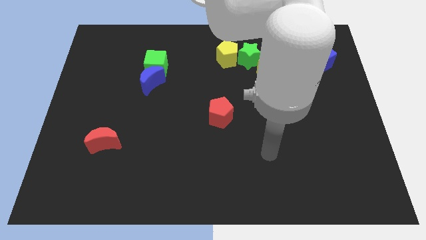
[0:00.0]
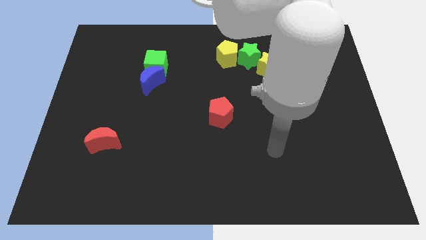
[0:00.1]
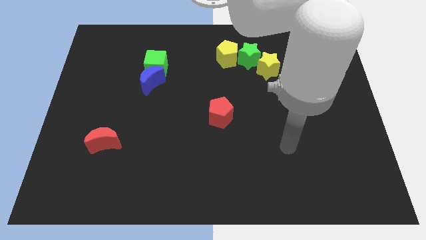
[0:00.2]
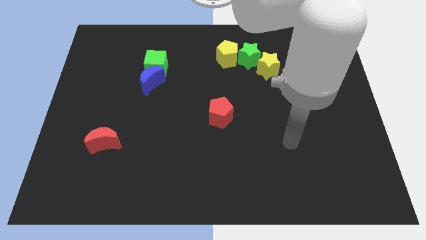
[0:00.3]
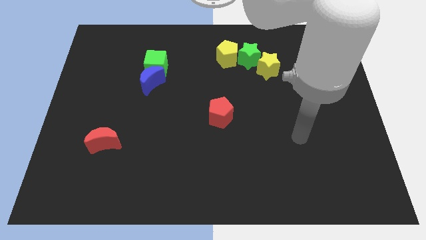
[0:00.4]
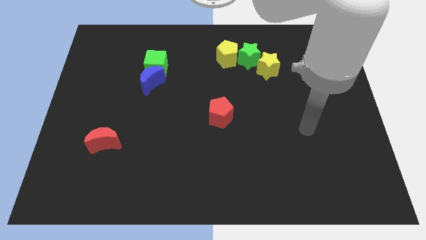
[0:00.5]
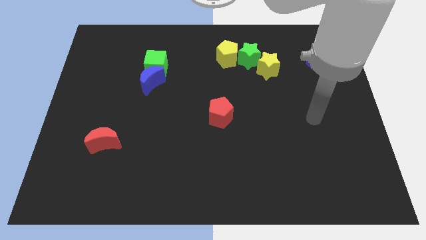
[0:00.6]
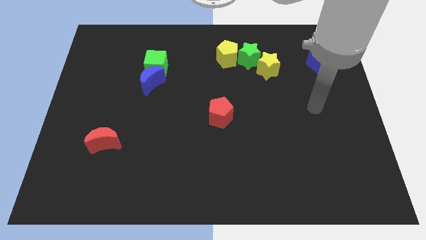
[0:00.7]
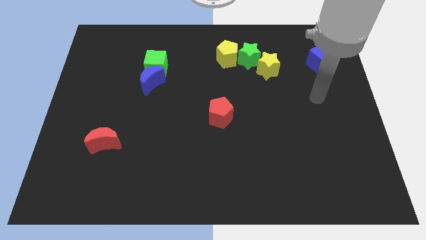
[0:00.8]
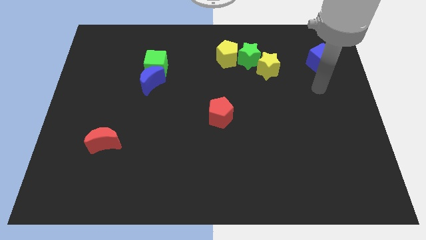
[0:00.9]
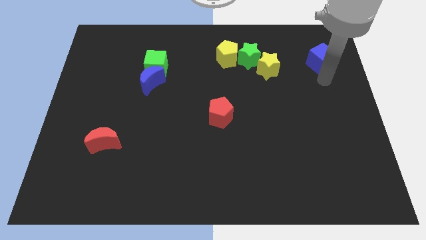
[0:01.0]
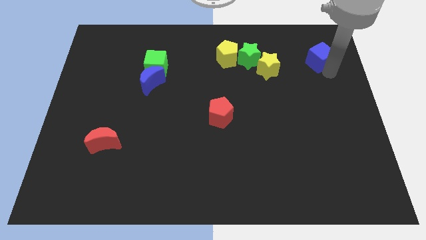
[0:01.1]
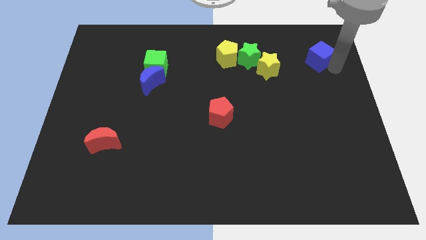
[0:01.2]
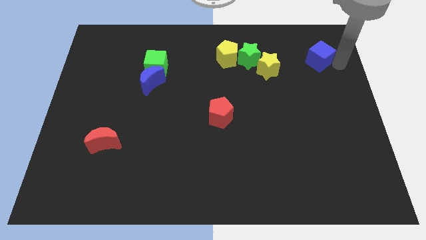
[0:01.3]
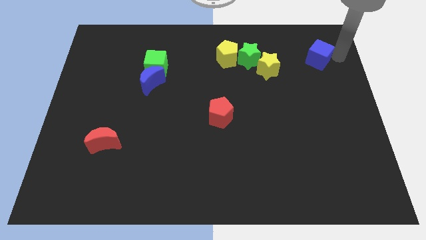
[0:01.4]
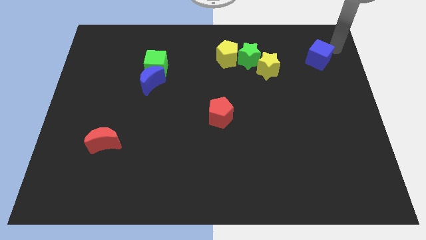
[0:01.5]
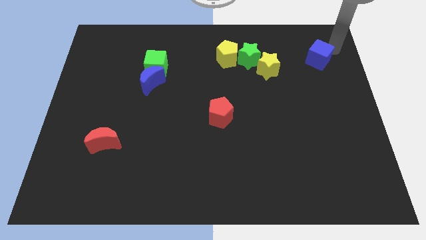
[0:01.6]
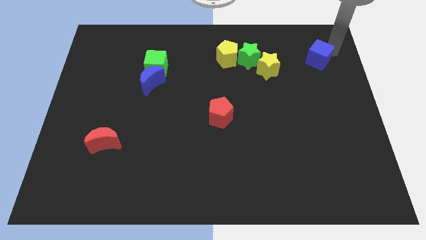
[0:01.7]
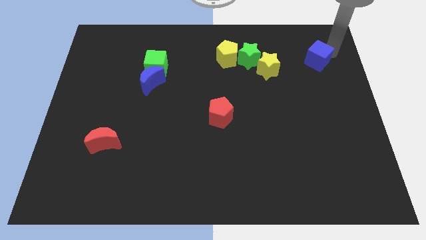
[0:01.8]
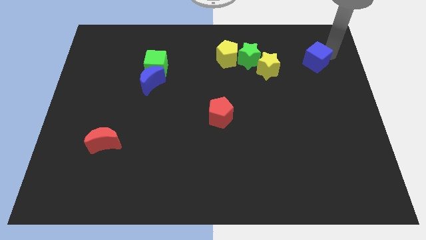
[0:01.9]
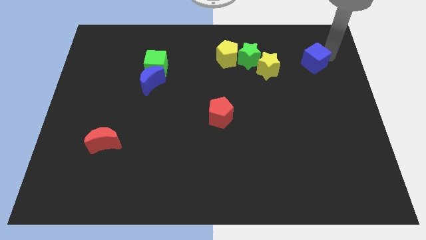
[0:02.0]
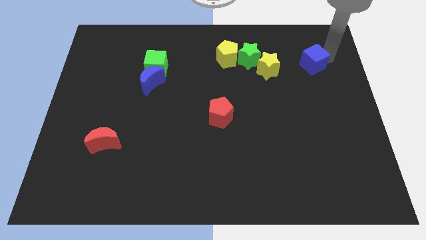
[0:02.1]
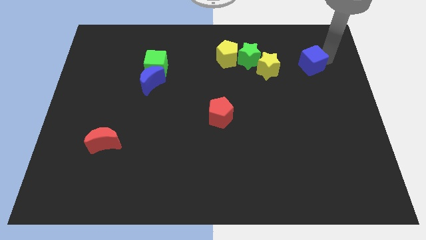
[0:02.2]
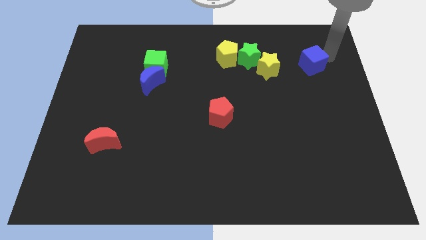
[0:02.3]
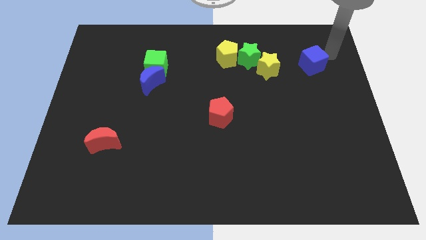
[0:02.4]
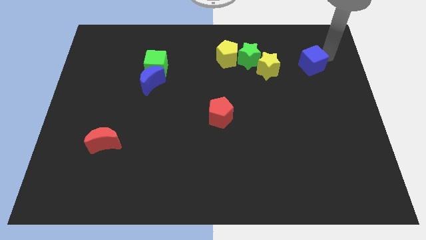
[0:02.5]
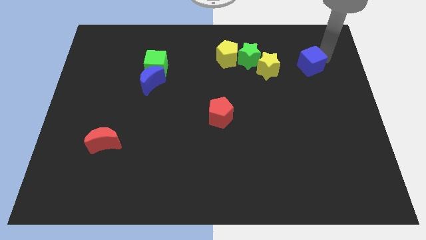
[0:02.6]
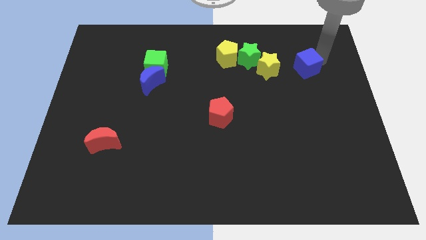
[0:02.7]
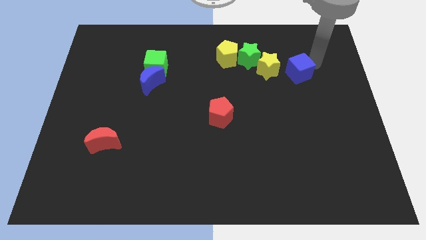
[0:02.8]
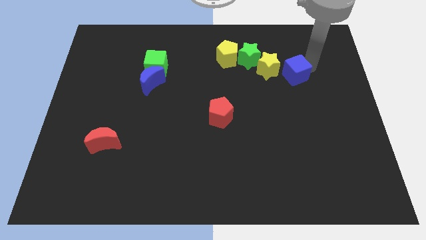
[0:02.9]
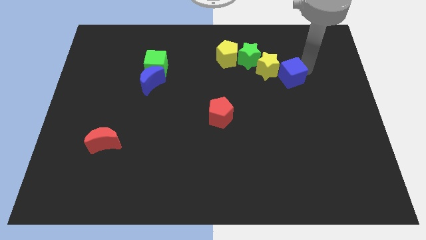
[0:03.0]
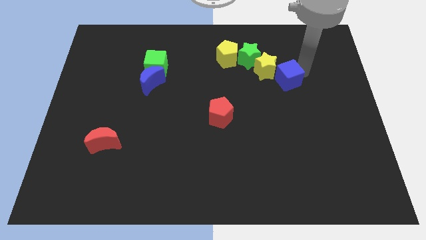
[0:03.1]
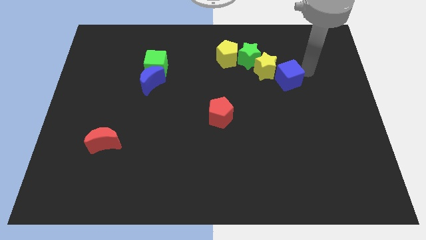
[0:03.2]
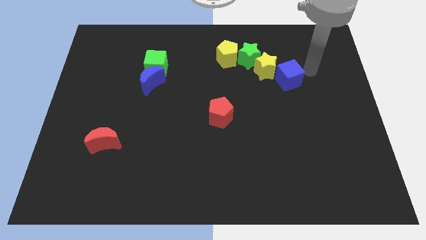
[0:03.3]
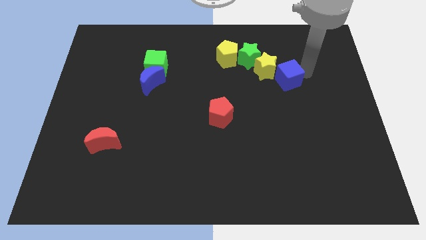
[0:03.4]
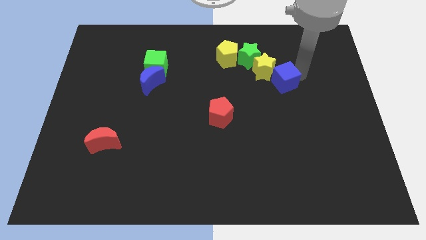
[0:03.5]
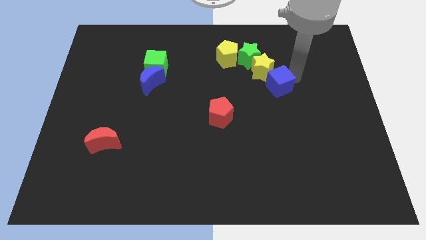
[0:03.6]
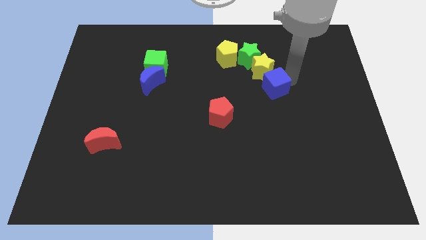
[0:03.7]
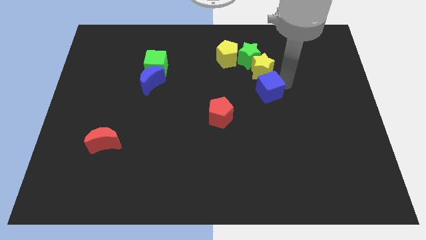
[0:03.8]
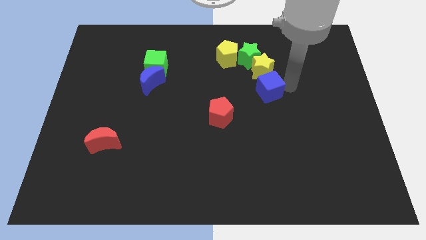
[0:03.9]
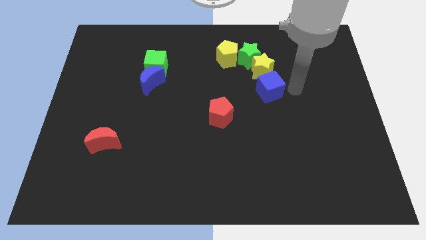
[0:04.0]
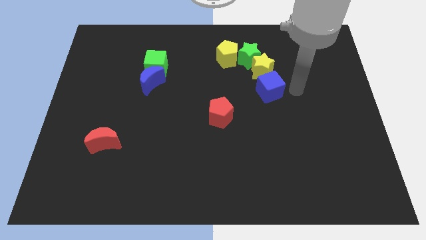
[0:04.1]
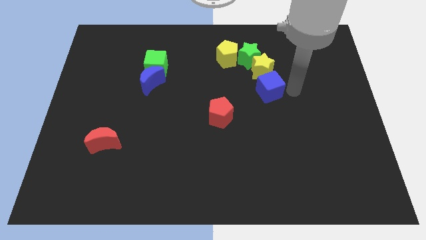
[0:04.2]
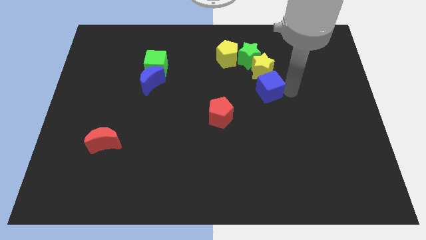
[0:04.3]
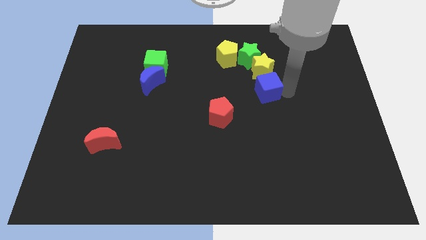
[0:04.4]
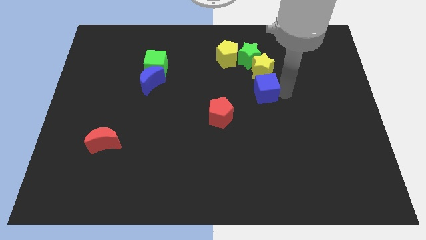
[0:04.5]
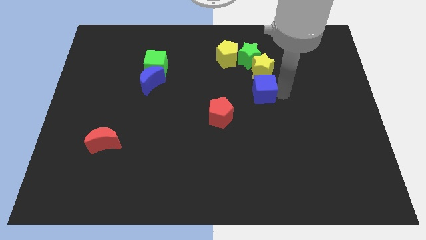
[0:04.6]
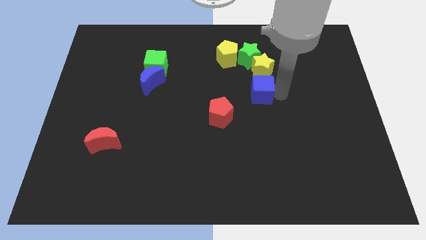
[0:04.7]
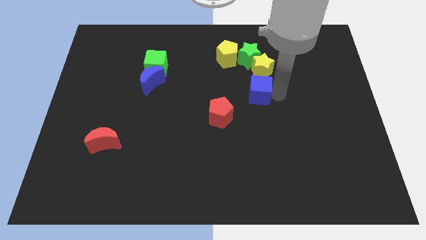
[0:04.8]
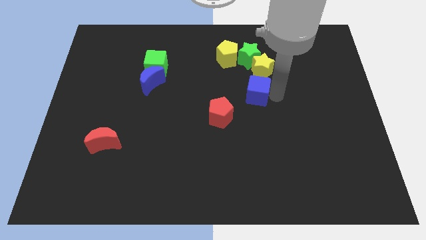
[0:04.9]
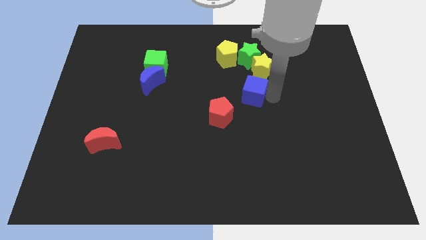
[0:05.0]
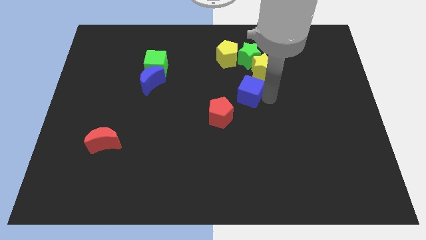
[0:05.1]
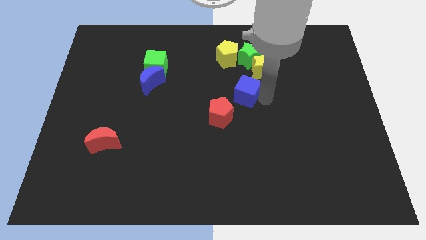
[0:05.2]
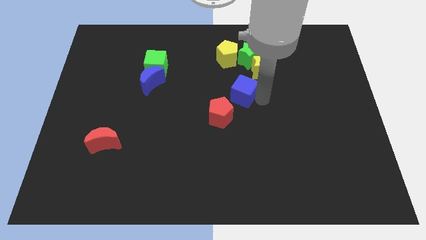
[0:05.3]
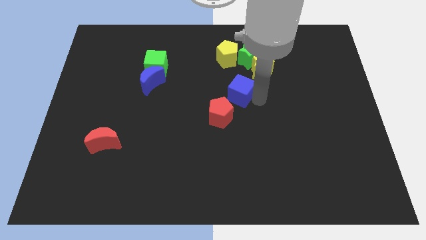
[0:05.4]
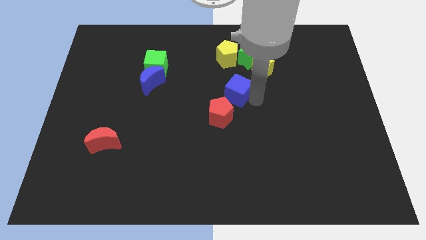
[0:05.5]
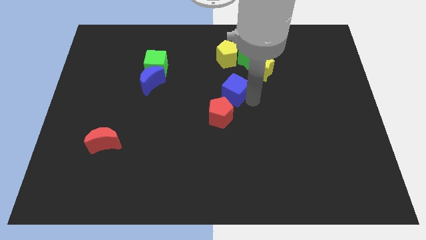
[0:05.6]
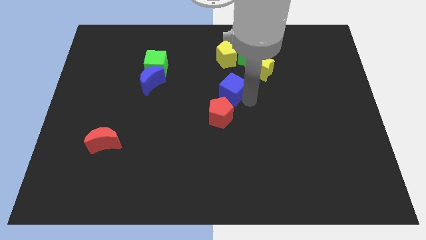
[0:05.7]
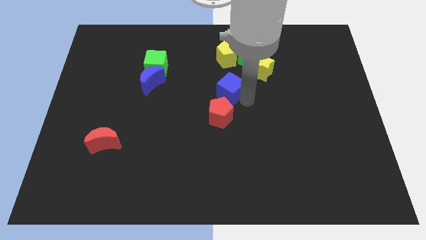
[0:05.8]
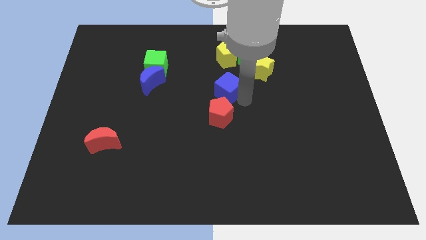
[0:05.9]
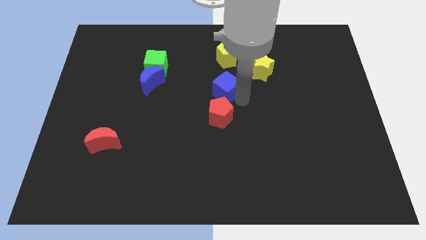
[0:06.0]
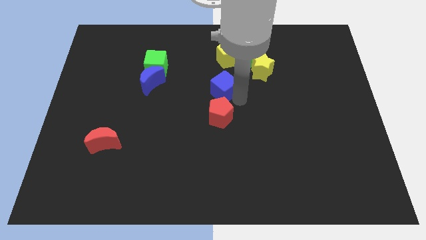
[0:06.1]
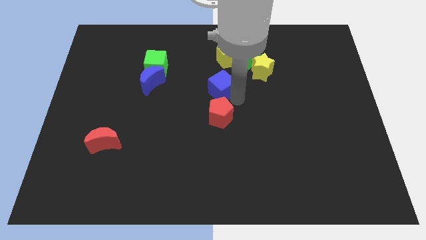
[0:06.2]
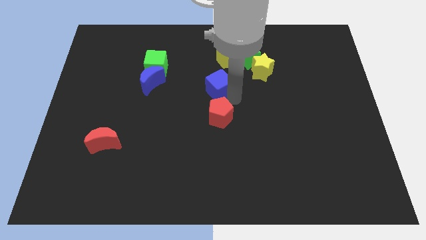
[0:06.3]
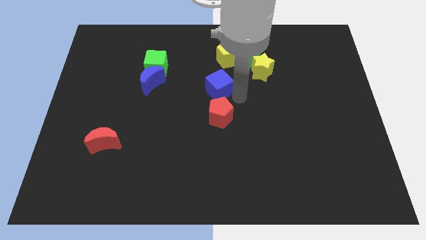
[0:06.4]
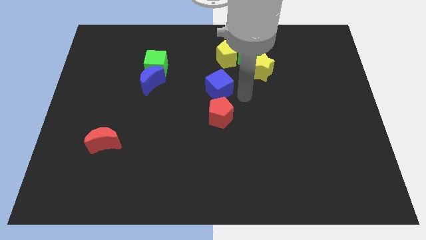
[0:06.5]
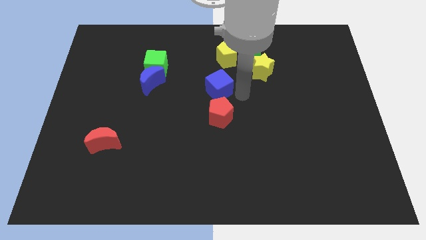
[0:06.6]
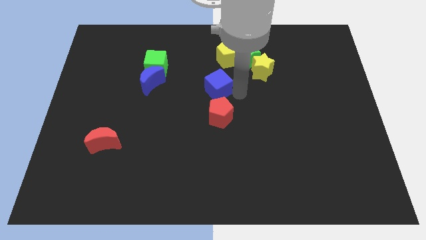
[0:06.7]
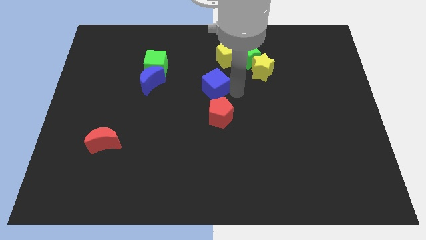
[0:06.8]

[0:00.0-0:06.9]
push the blue cube just right of the blue moon

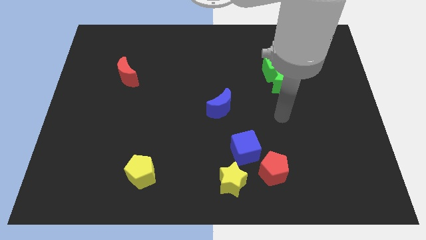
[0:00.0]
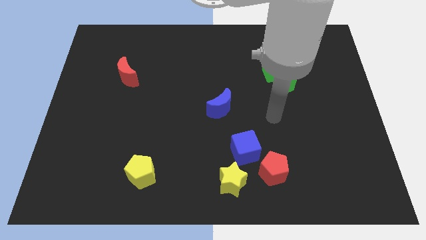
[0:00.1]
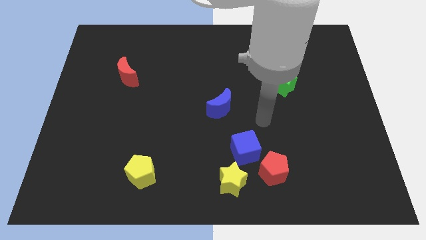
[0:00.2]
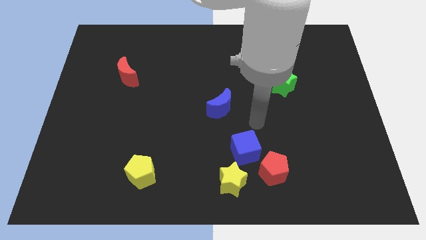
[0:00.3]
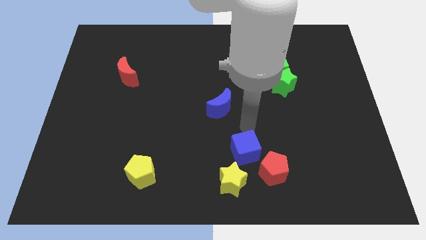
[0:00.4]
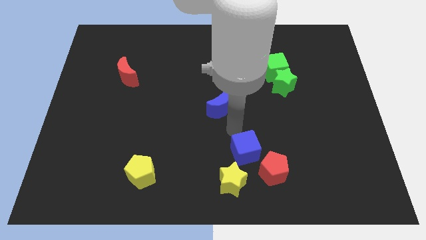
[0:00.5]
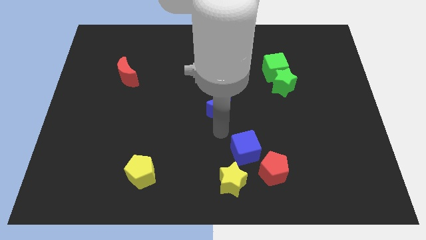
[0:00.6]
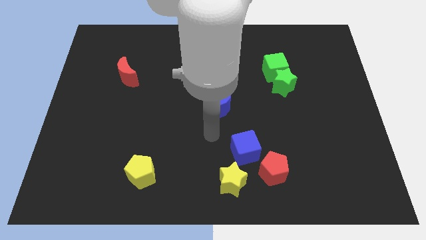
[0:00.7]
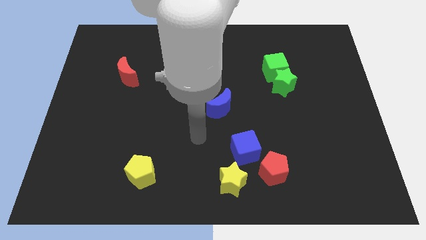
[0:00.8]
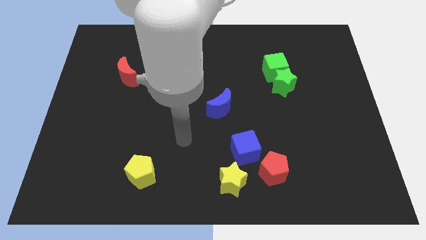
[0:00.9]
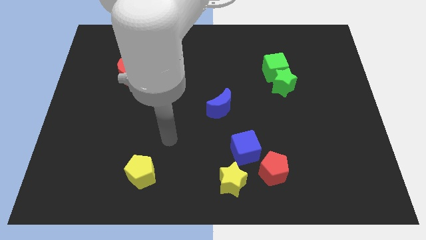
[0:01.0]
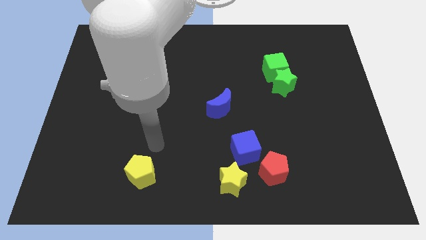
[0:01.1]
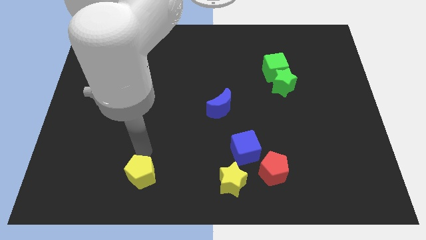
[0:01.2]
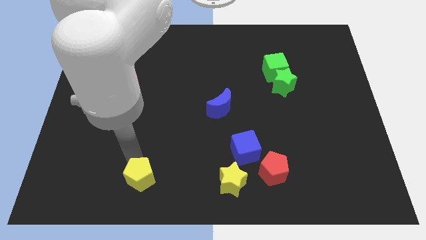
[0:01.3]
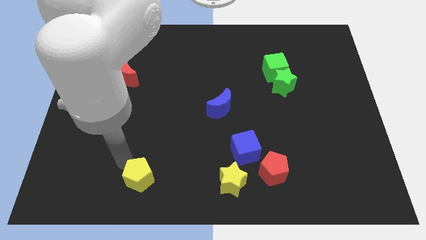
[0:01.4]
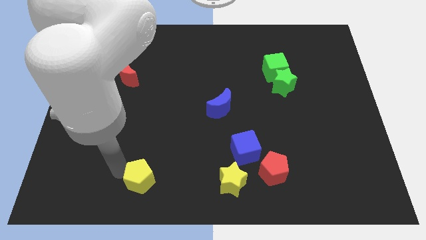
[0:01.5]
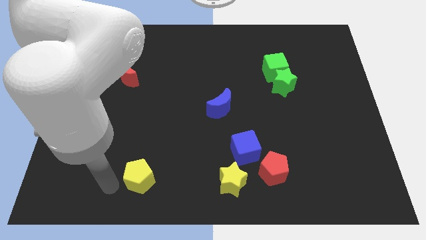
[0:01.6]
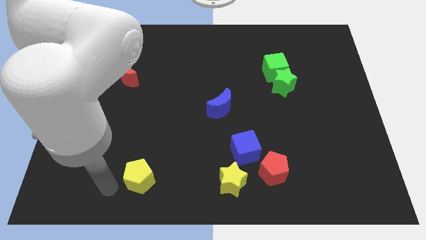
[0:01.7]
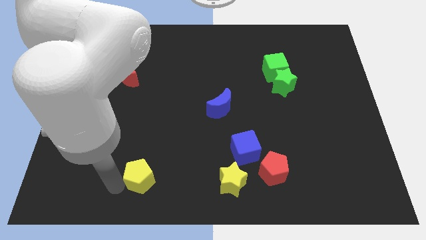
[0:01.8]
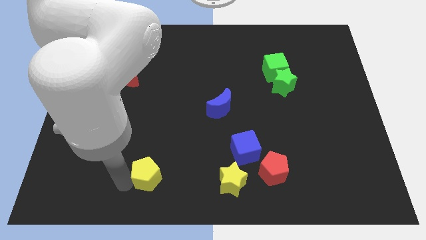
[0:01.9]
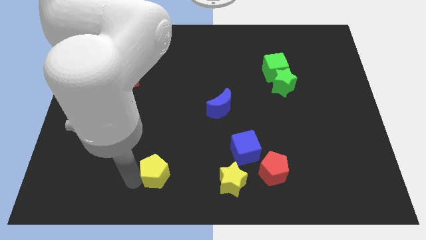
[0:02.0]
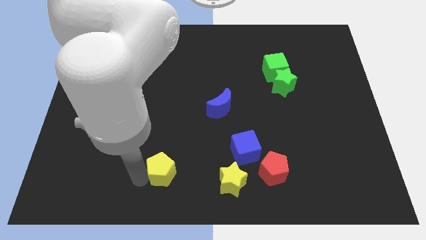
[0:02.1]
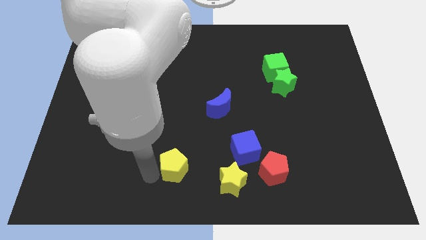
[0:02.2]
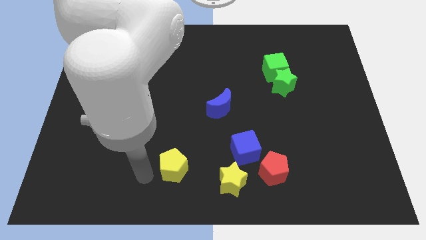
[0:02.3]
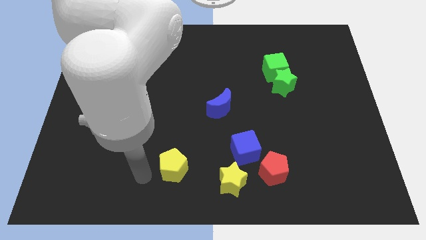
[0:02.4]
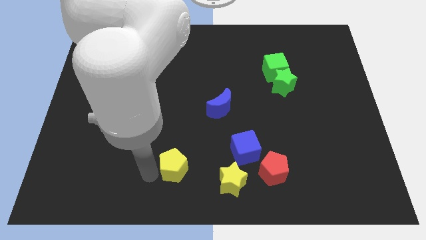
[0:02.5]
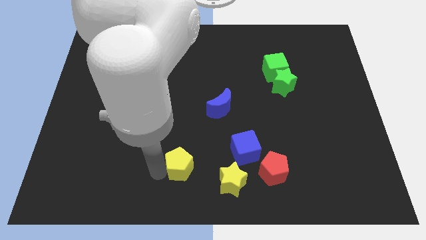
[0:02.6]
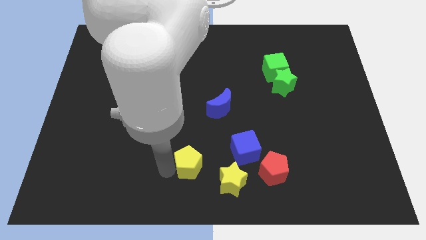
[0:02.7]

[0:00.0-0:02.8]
move the yellow pentagon diagonally up and to the left of the yellow star
